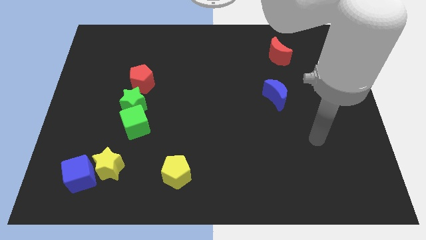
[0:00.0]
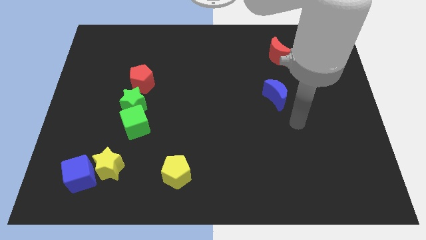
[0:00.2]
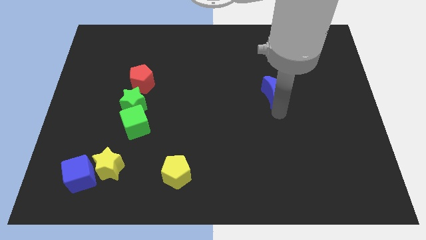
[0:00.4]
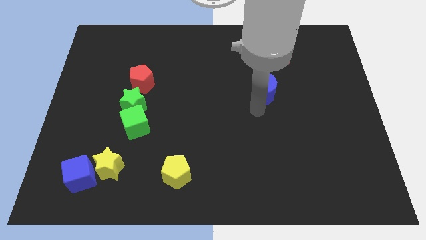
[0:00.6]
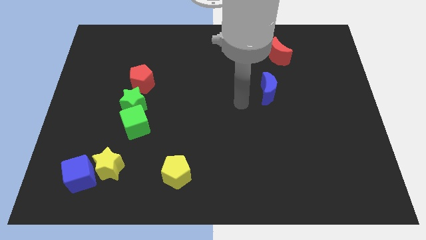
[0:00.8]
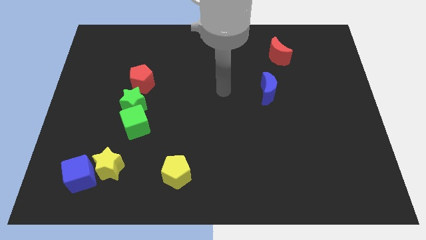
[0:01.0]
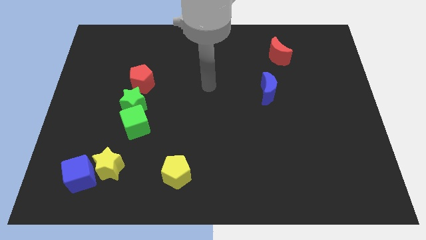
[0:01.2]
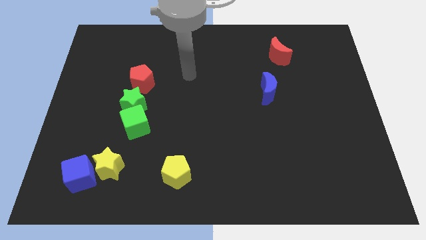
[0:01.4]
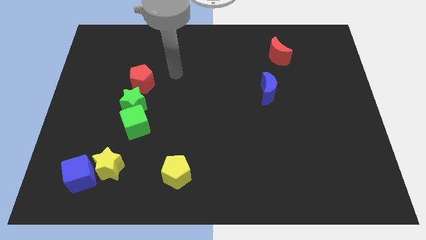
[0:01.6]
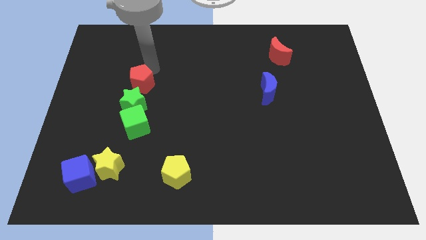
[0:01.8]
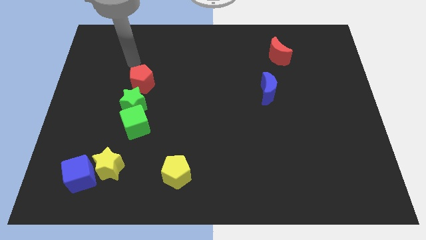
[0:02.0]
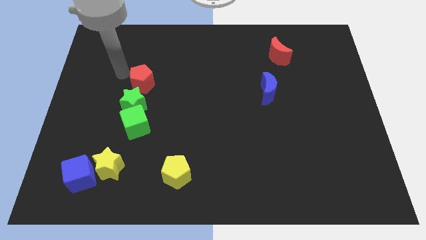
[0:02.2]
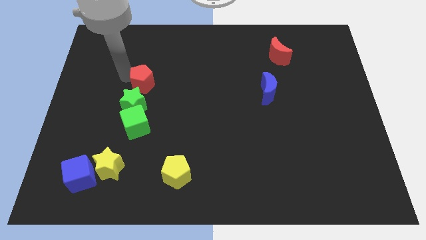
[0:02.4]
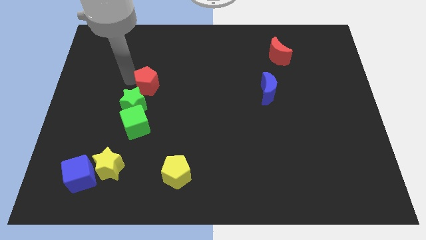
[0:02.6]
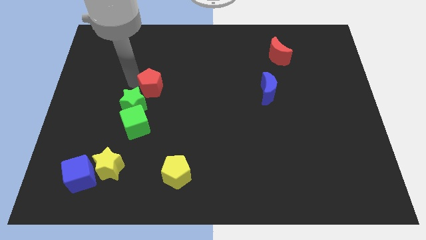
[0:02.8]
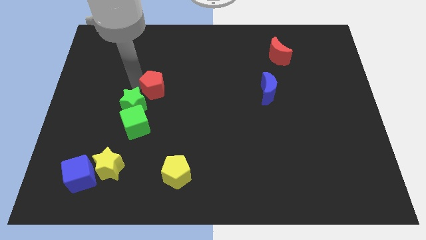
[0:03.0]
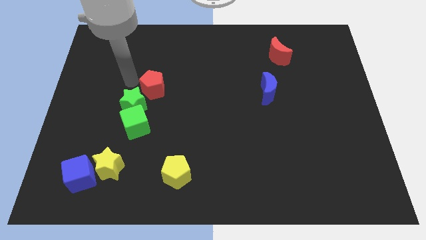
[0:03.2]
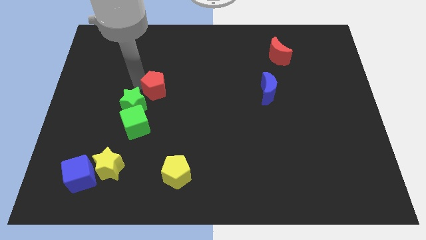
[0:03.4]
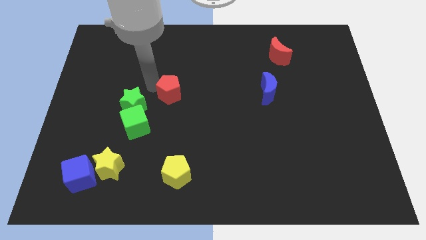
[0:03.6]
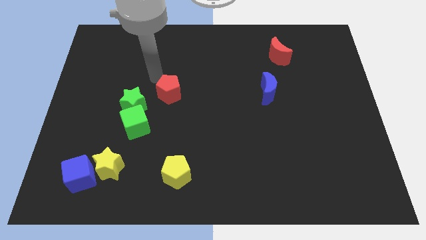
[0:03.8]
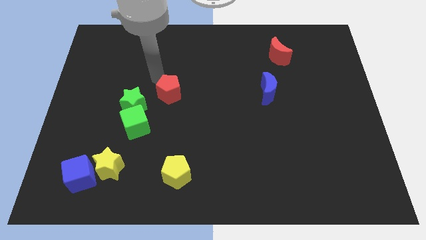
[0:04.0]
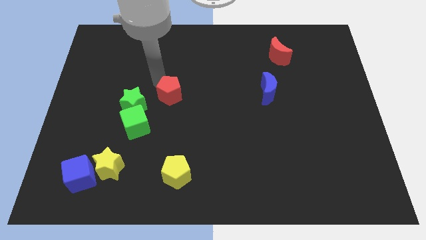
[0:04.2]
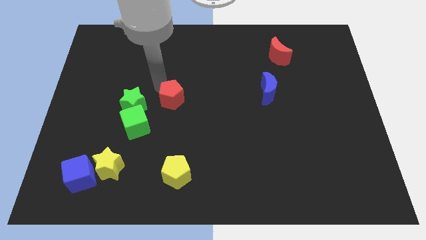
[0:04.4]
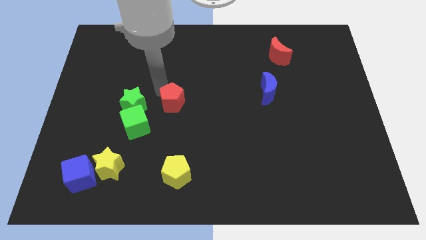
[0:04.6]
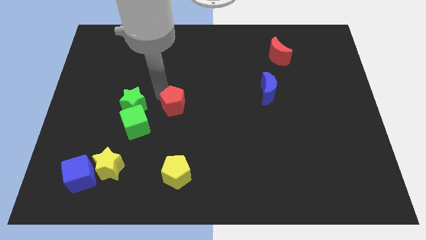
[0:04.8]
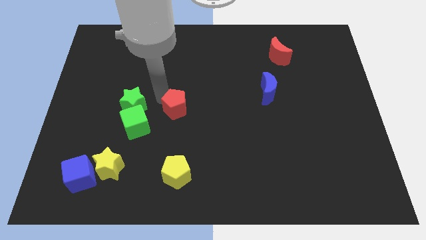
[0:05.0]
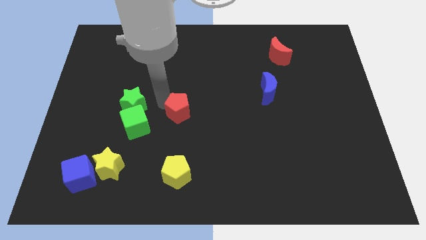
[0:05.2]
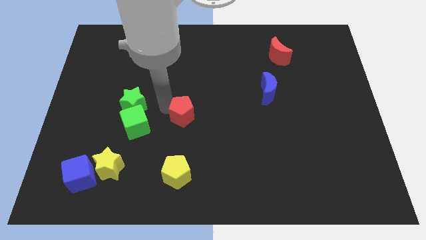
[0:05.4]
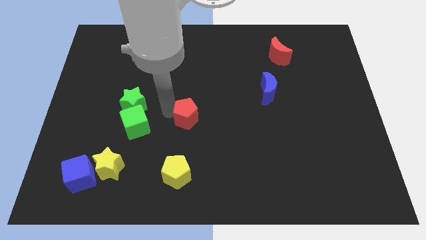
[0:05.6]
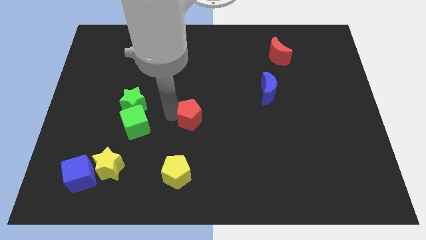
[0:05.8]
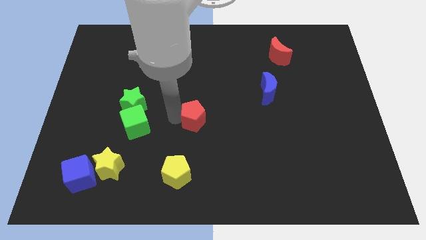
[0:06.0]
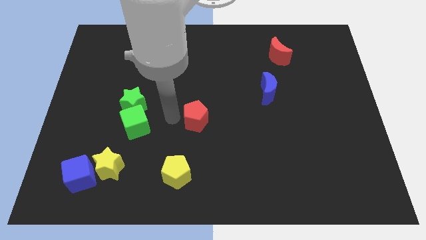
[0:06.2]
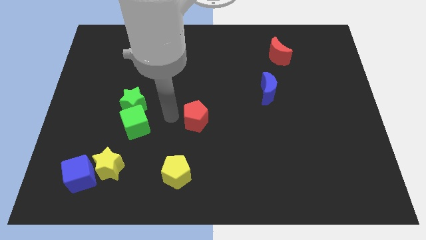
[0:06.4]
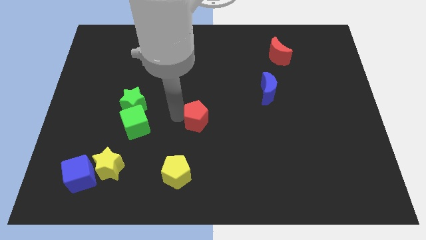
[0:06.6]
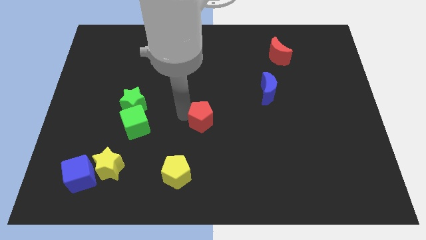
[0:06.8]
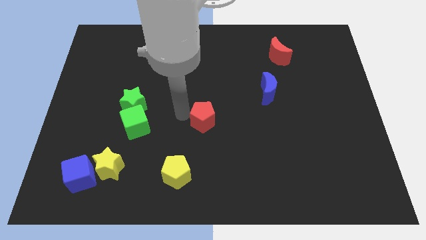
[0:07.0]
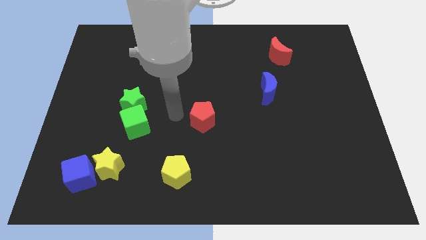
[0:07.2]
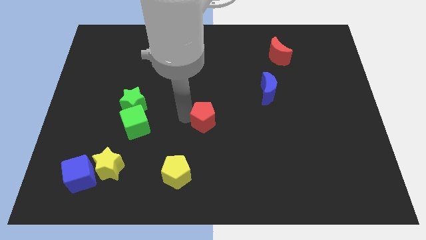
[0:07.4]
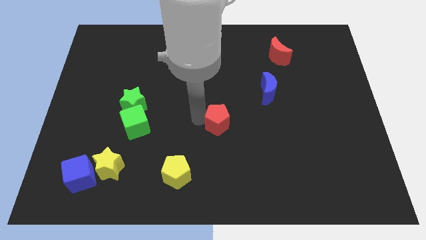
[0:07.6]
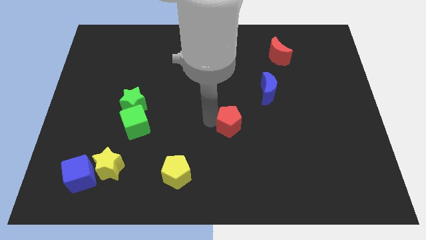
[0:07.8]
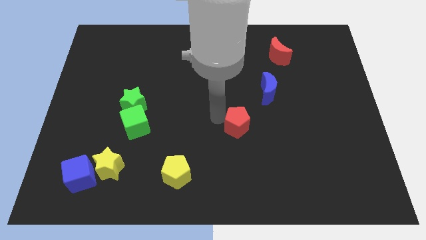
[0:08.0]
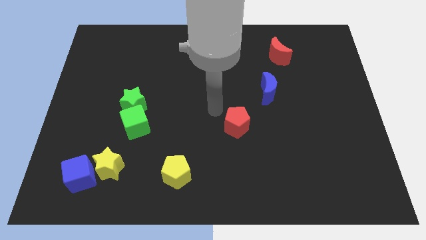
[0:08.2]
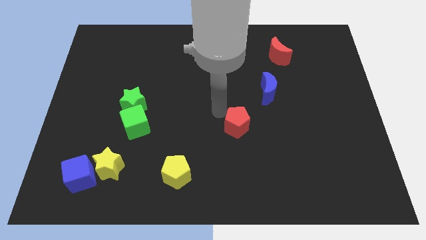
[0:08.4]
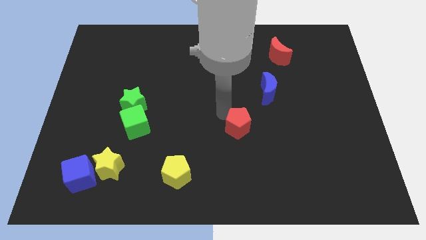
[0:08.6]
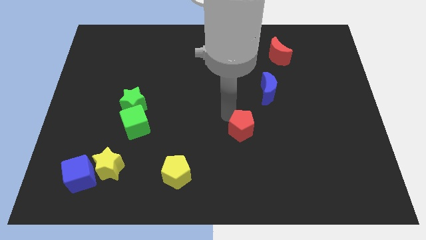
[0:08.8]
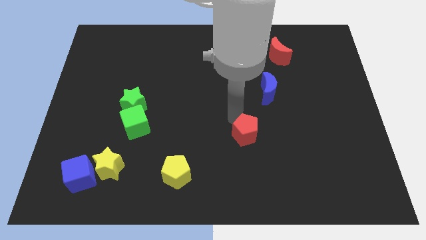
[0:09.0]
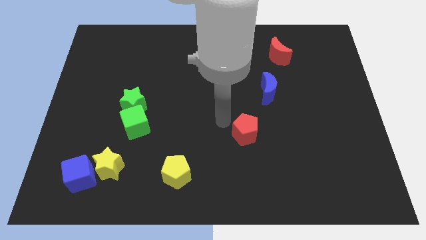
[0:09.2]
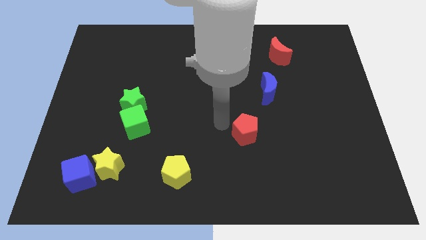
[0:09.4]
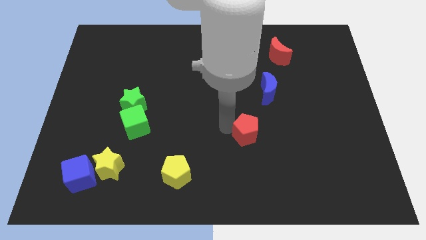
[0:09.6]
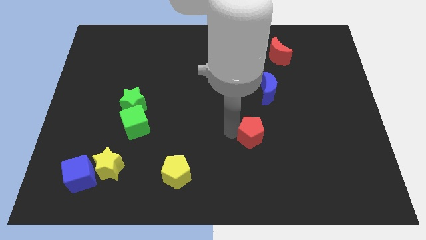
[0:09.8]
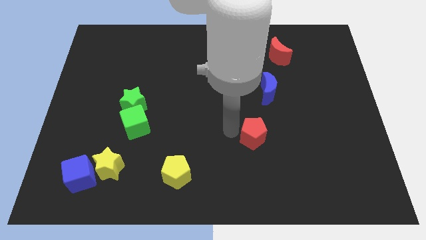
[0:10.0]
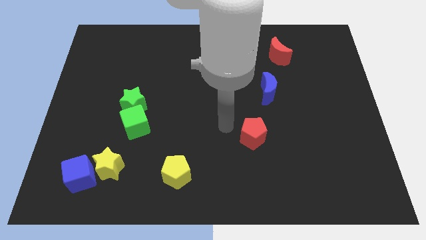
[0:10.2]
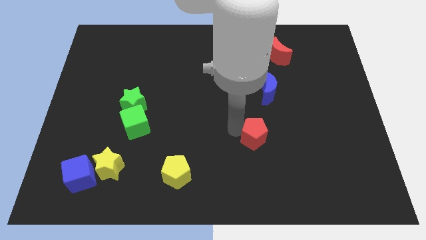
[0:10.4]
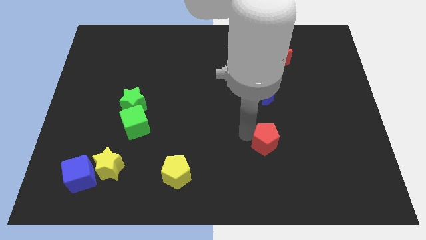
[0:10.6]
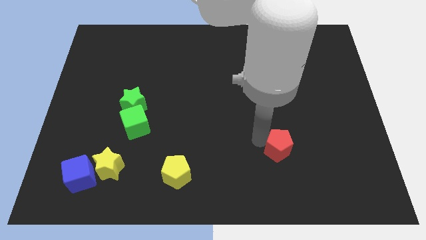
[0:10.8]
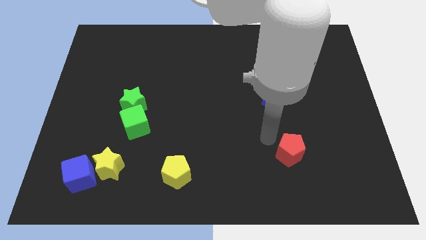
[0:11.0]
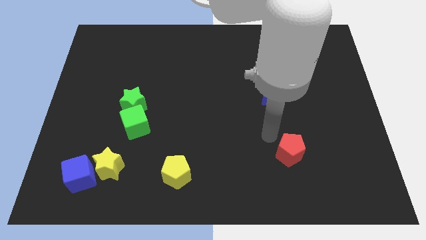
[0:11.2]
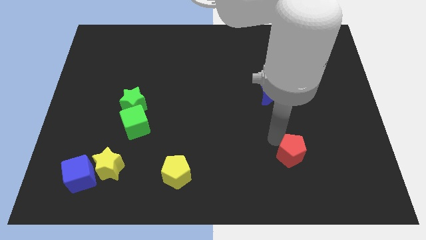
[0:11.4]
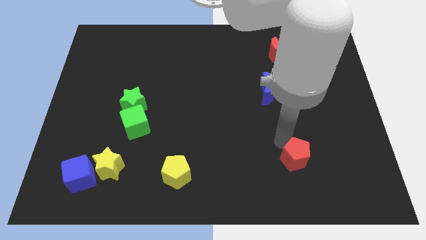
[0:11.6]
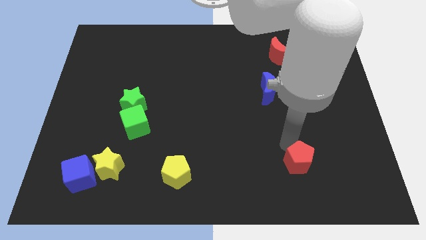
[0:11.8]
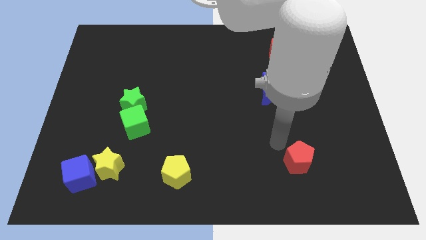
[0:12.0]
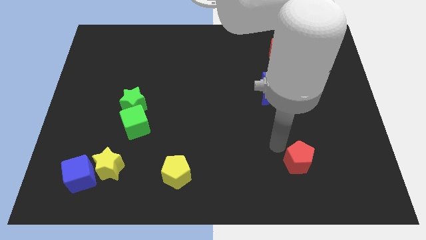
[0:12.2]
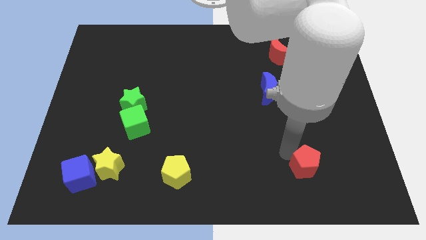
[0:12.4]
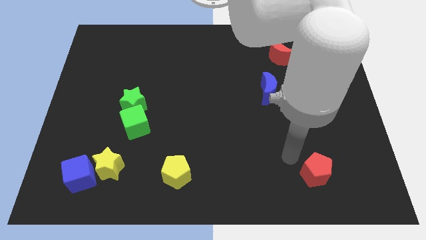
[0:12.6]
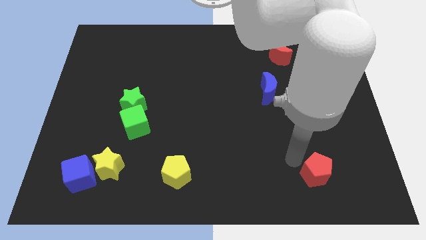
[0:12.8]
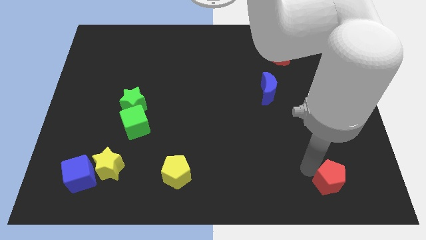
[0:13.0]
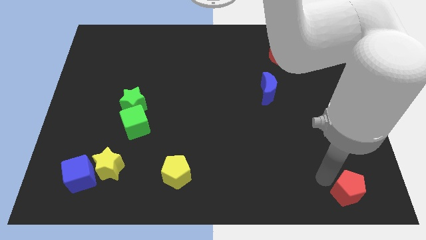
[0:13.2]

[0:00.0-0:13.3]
move the red pentagon to the bottom right of the board
